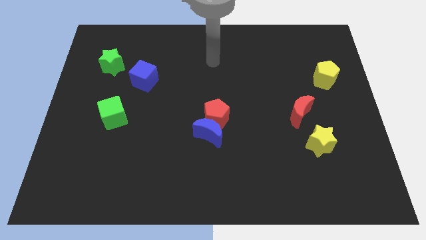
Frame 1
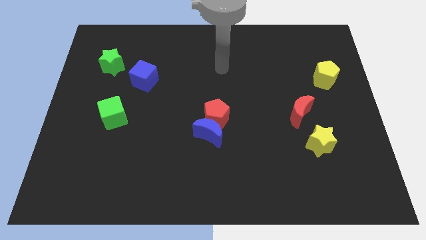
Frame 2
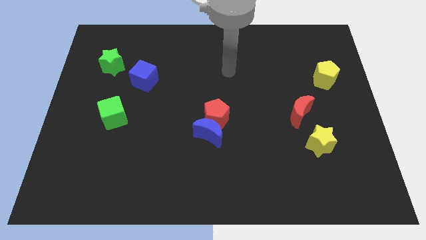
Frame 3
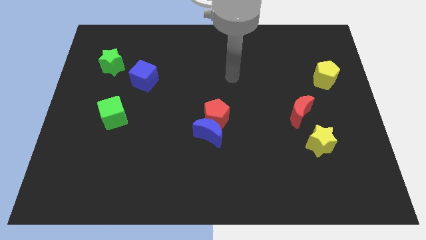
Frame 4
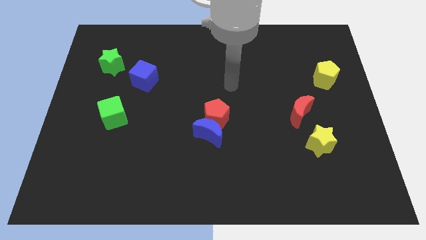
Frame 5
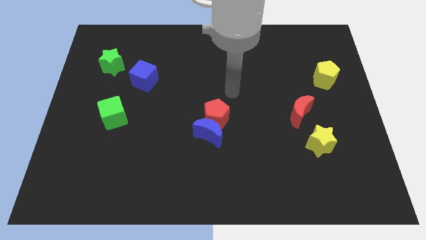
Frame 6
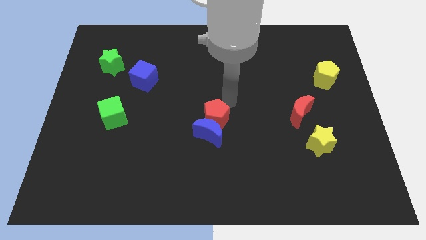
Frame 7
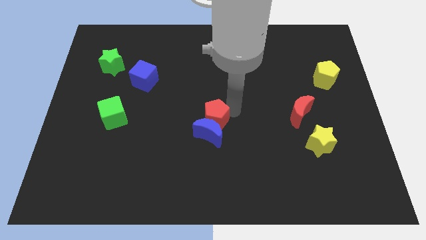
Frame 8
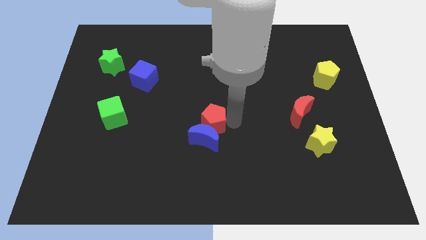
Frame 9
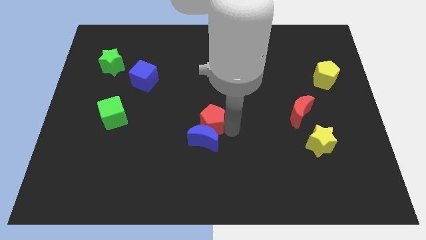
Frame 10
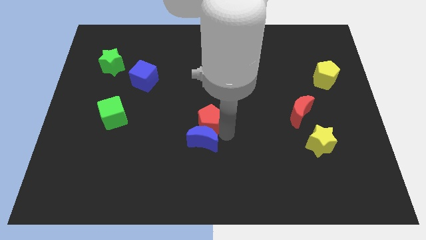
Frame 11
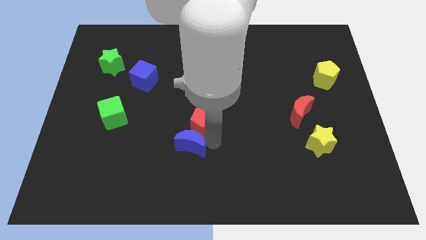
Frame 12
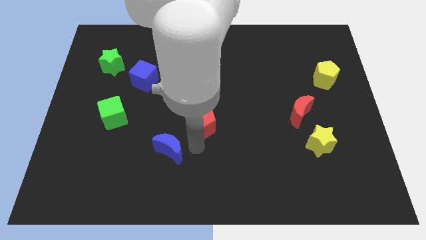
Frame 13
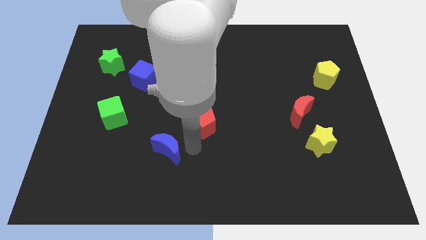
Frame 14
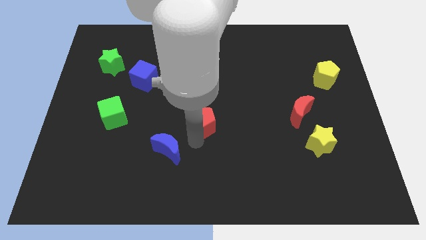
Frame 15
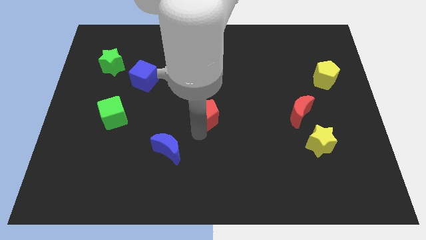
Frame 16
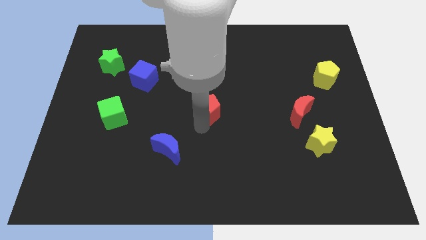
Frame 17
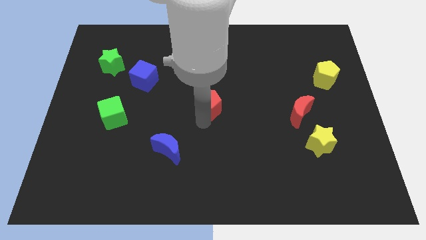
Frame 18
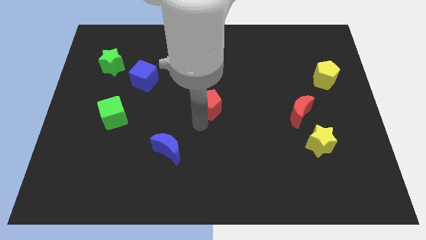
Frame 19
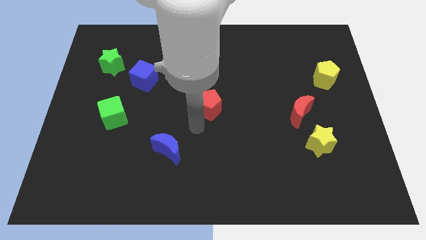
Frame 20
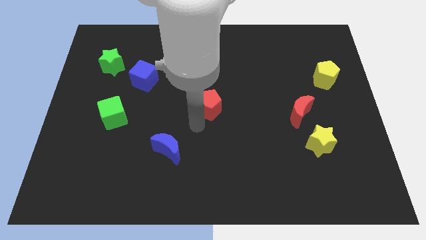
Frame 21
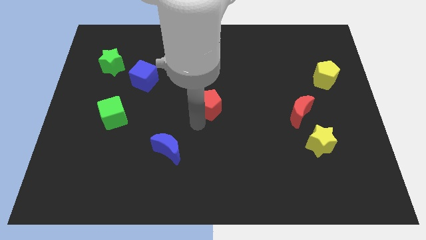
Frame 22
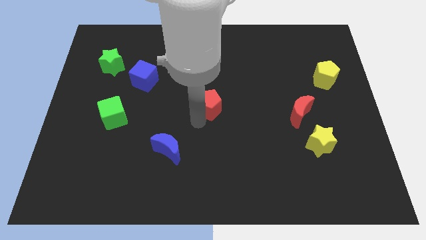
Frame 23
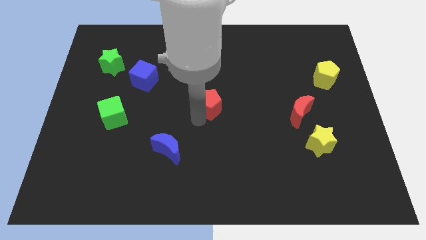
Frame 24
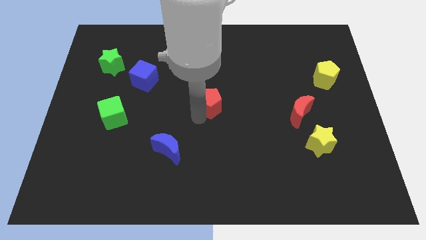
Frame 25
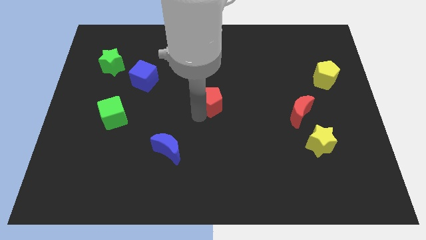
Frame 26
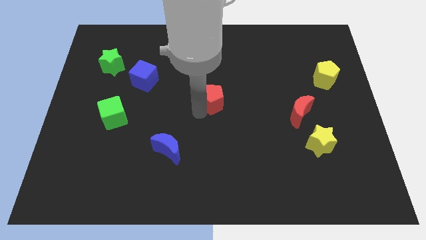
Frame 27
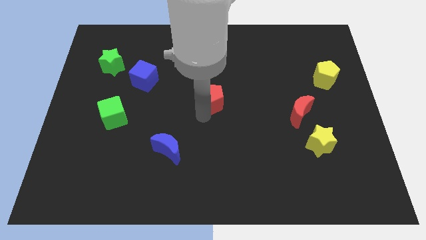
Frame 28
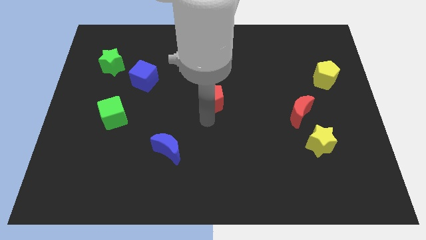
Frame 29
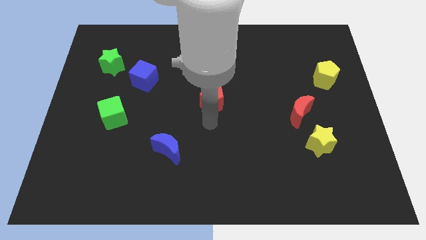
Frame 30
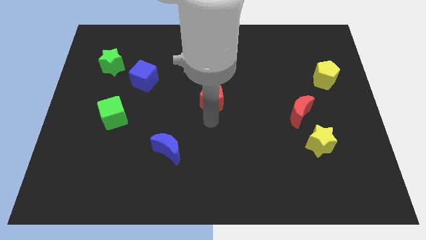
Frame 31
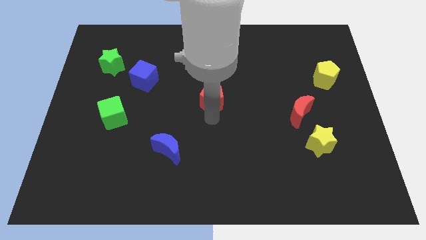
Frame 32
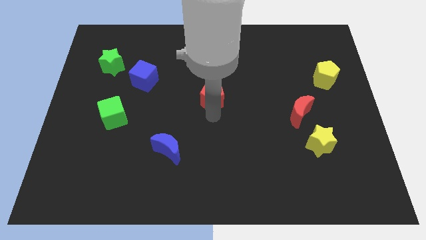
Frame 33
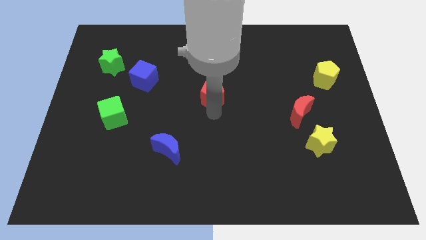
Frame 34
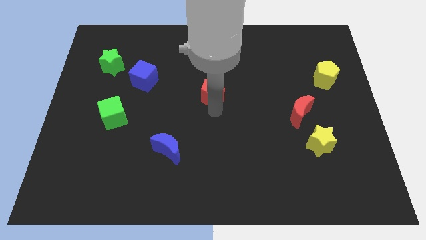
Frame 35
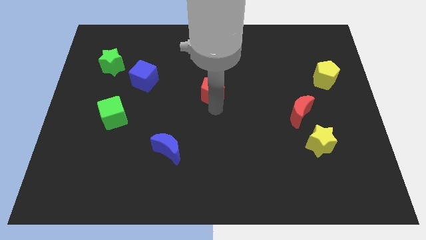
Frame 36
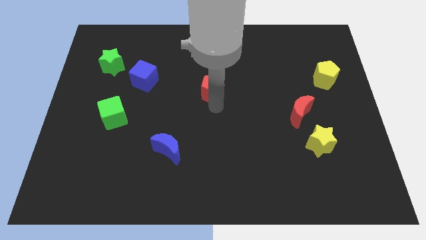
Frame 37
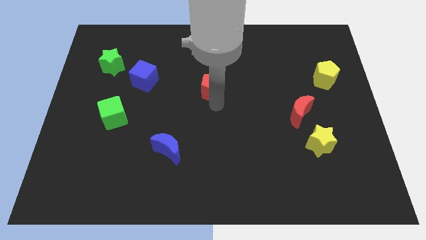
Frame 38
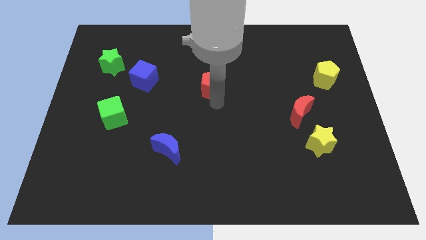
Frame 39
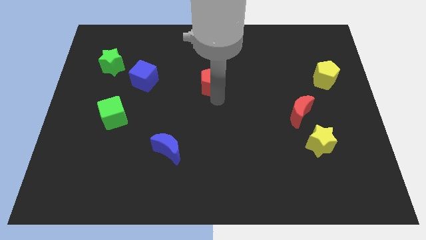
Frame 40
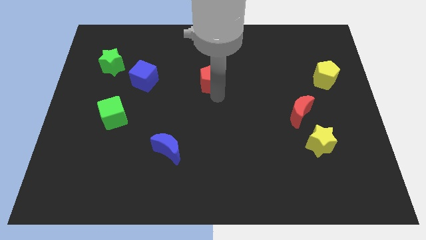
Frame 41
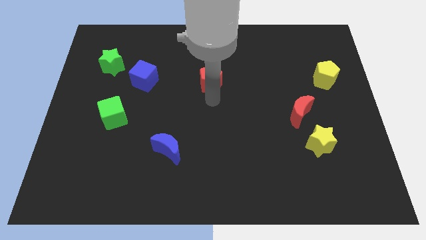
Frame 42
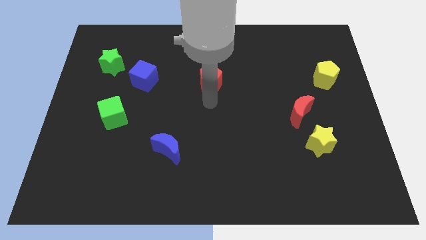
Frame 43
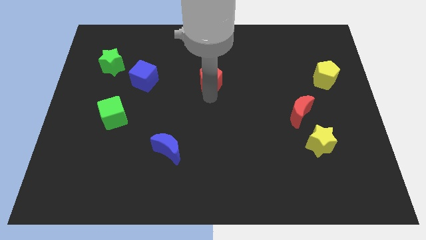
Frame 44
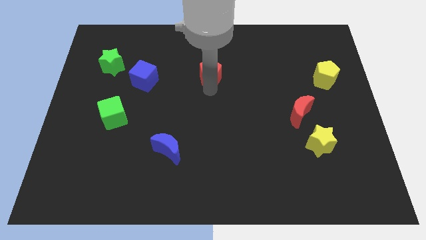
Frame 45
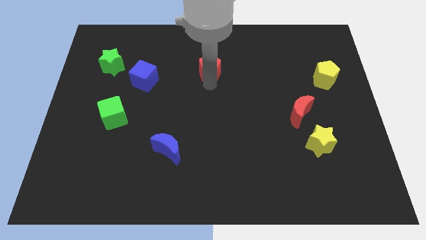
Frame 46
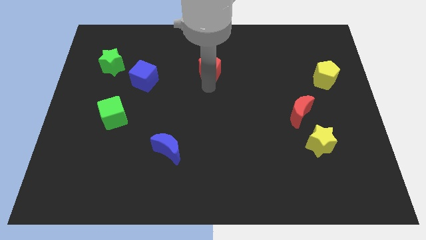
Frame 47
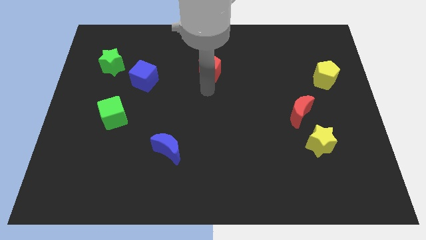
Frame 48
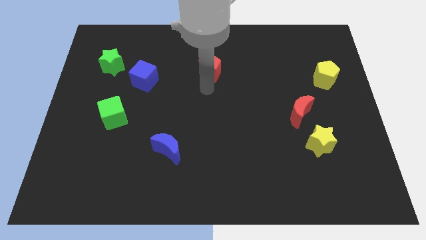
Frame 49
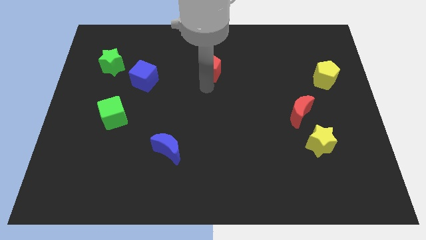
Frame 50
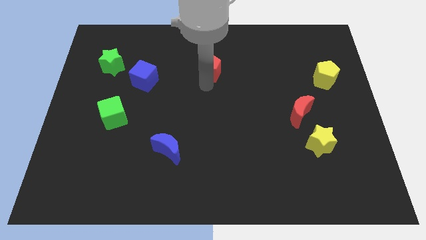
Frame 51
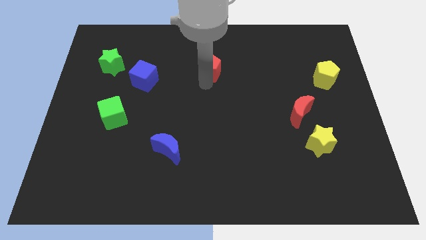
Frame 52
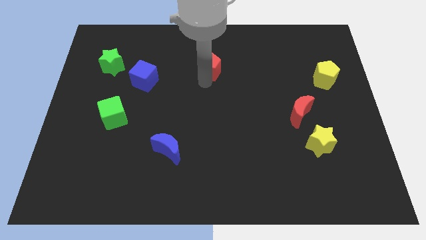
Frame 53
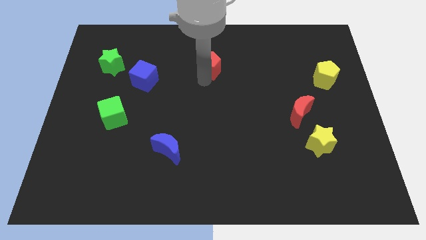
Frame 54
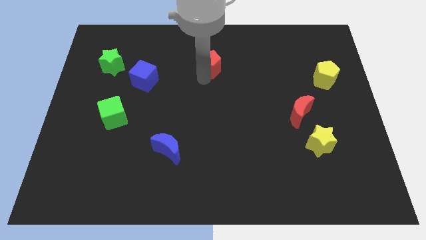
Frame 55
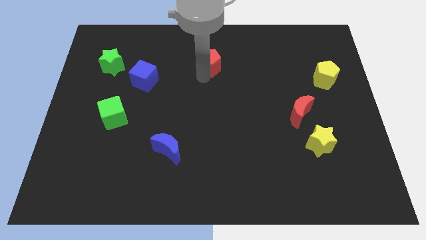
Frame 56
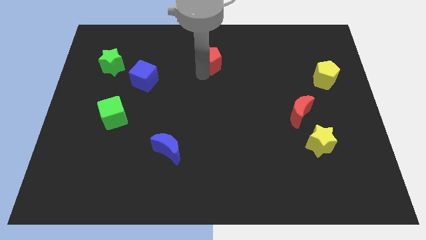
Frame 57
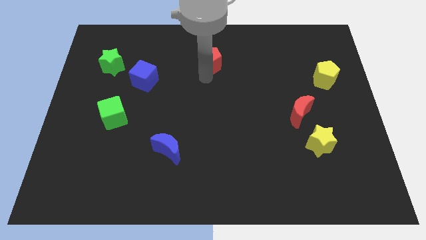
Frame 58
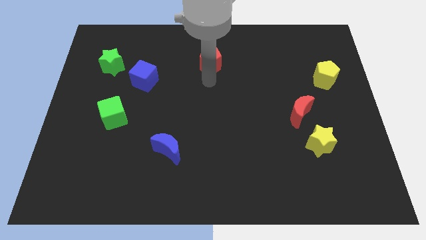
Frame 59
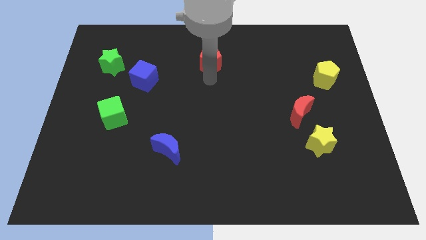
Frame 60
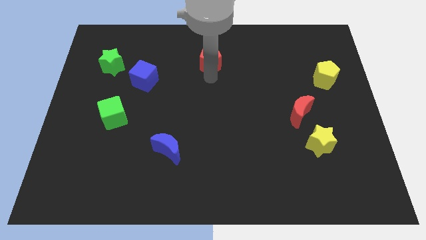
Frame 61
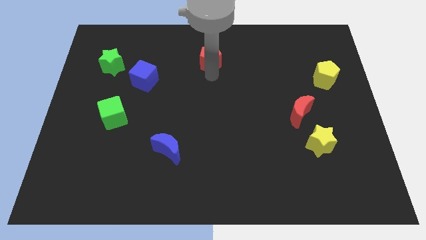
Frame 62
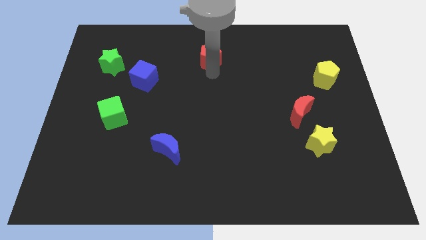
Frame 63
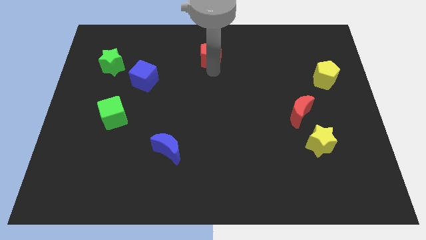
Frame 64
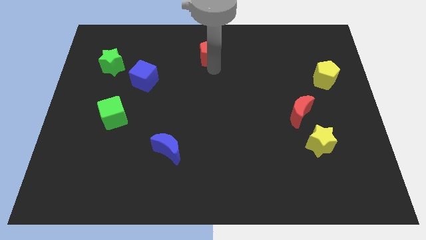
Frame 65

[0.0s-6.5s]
put the red pentagon to the top

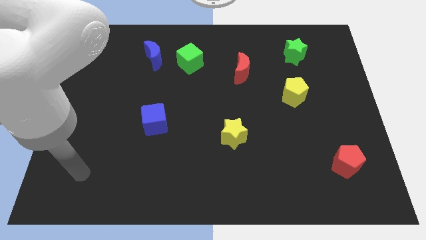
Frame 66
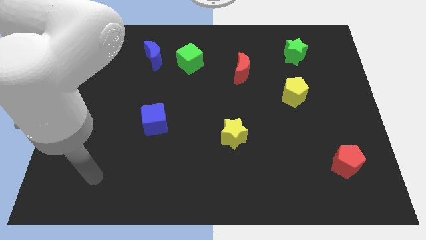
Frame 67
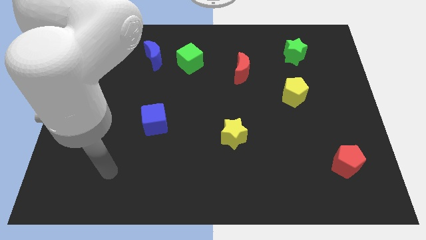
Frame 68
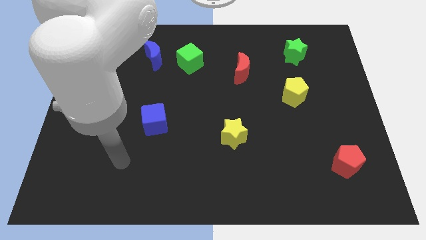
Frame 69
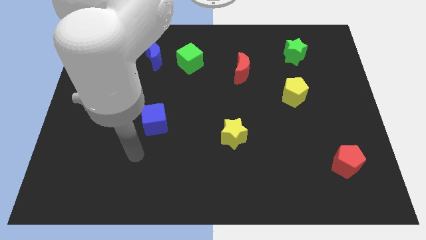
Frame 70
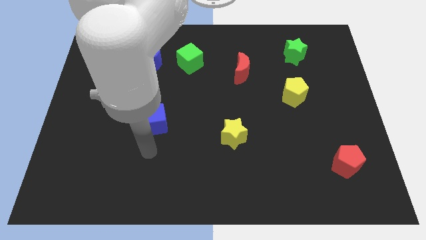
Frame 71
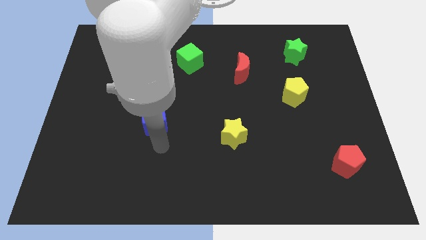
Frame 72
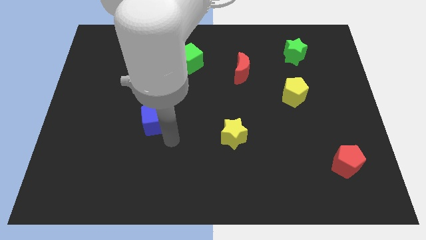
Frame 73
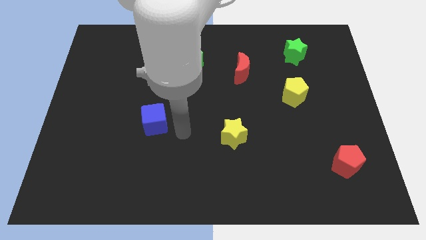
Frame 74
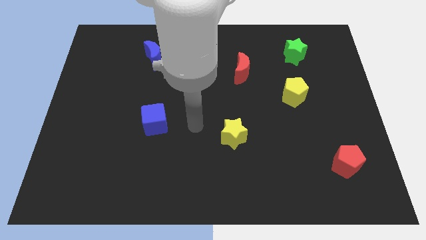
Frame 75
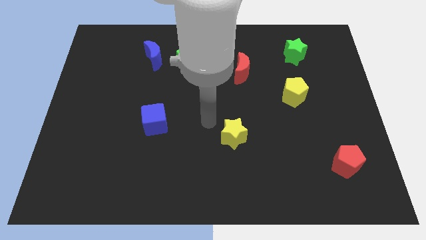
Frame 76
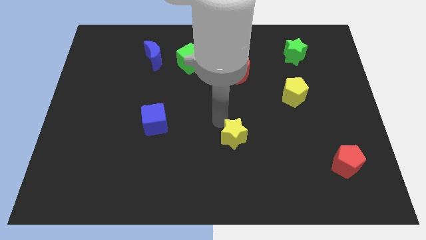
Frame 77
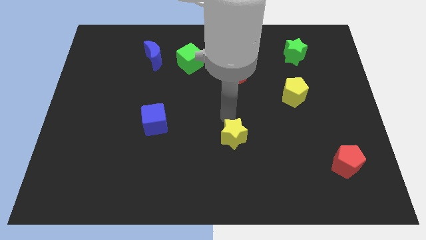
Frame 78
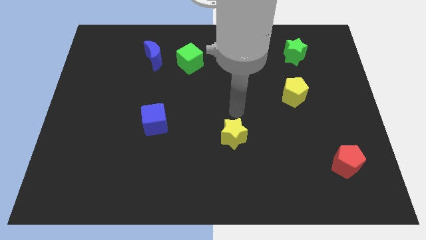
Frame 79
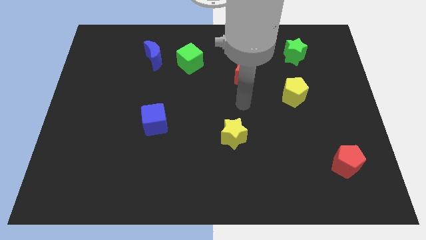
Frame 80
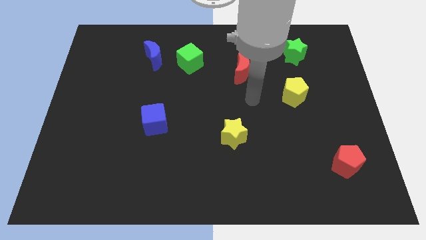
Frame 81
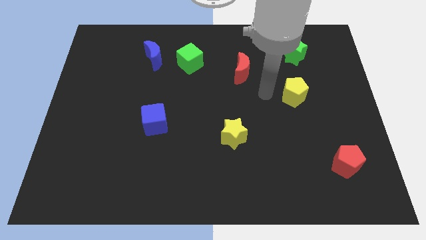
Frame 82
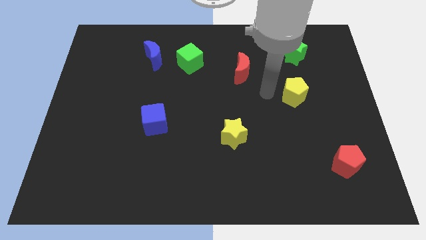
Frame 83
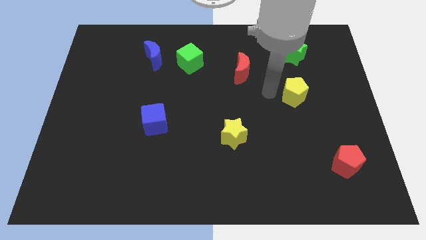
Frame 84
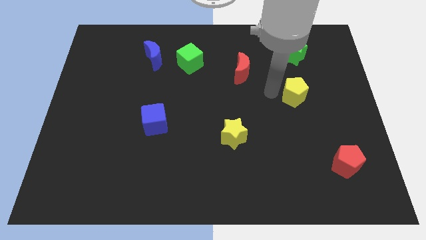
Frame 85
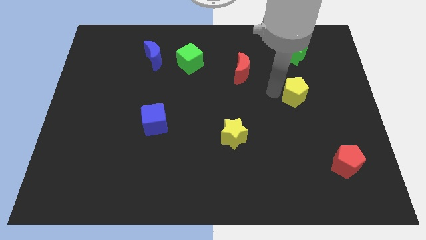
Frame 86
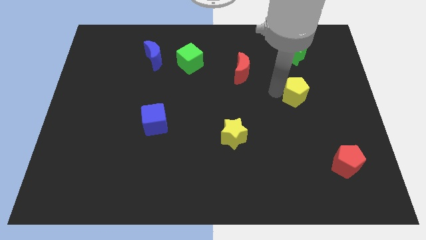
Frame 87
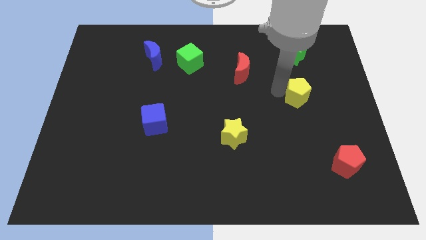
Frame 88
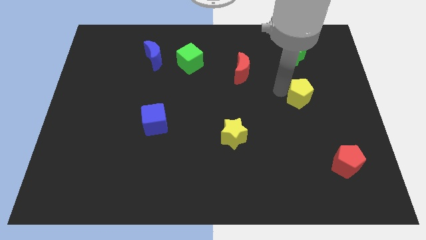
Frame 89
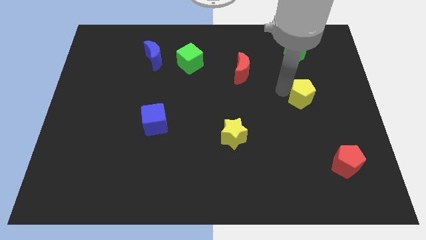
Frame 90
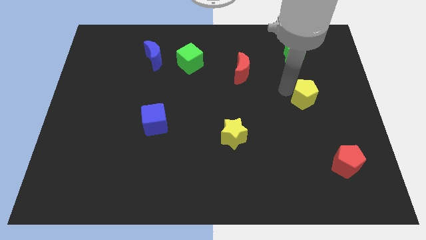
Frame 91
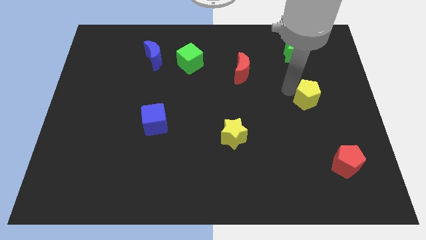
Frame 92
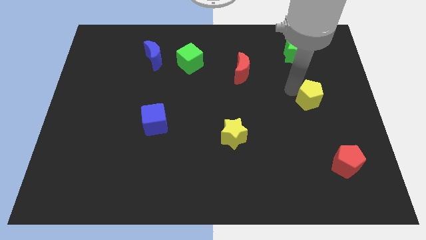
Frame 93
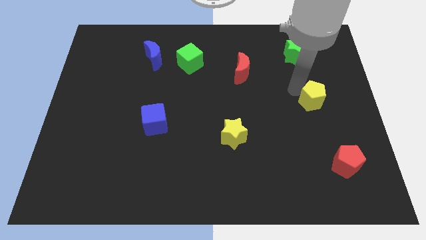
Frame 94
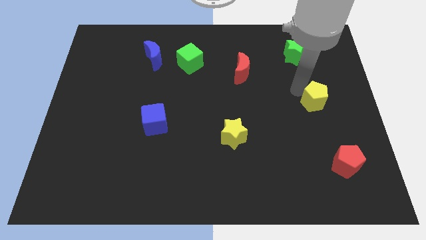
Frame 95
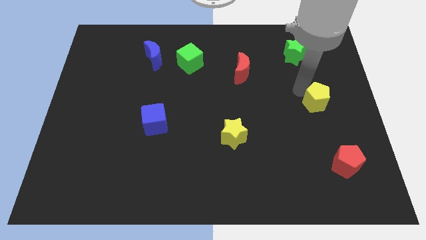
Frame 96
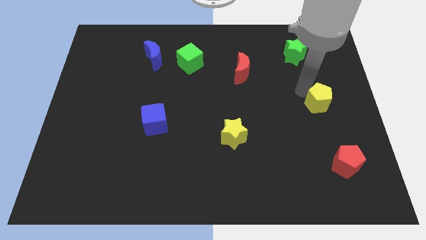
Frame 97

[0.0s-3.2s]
put the yellow pentagon to the center right
